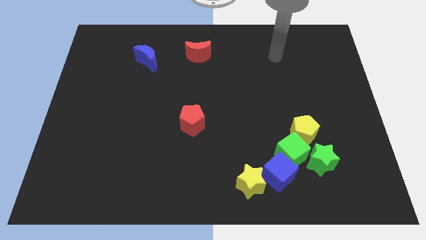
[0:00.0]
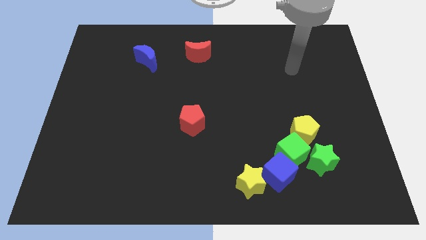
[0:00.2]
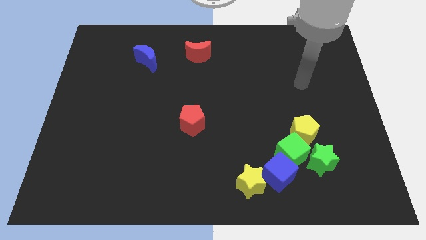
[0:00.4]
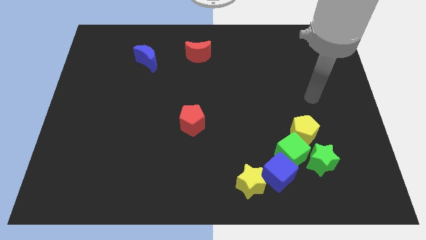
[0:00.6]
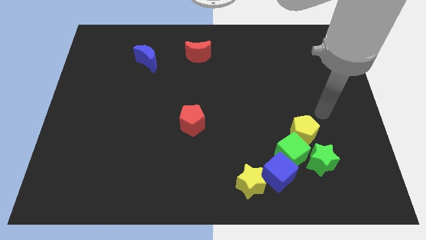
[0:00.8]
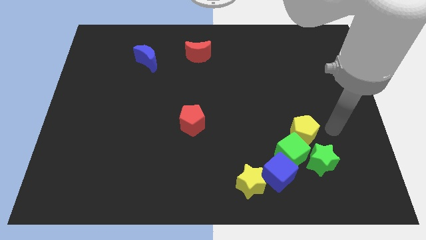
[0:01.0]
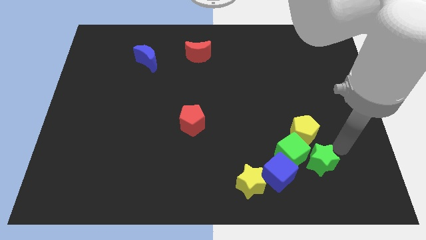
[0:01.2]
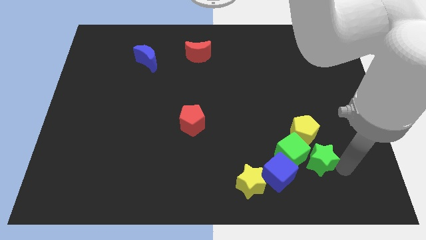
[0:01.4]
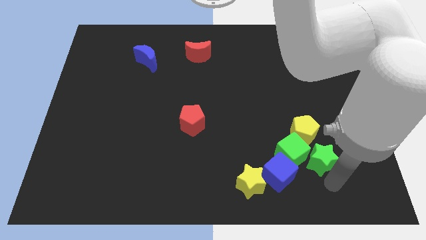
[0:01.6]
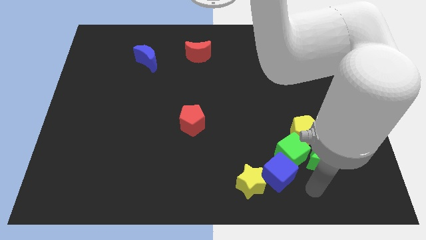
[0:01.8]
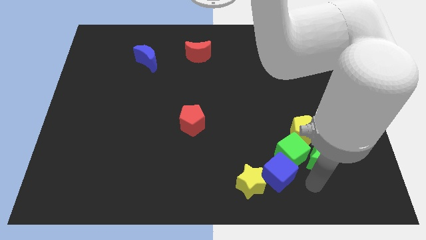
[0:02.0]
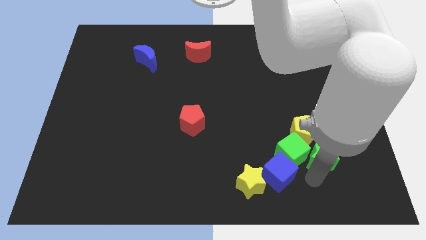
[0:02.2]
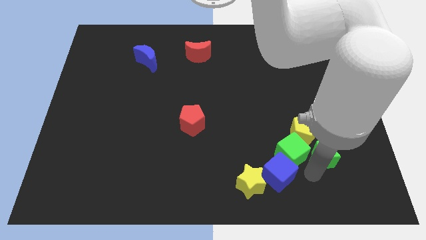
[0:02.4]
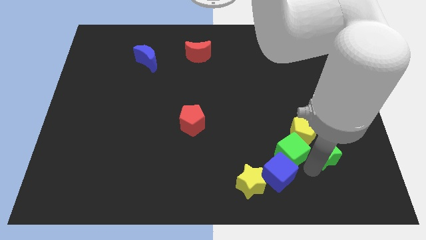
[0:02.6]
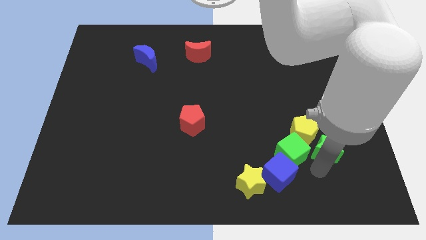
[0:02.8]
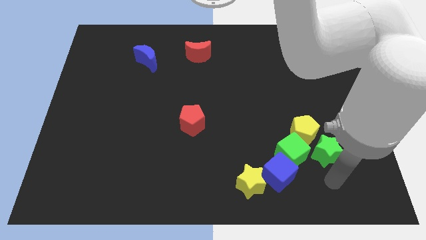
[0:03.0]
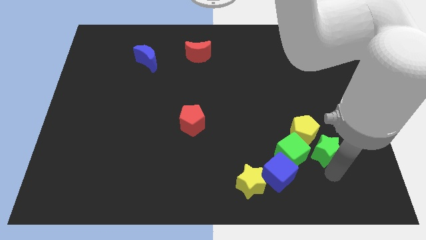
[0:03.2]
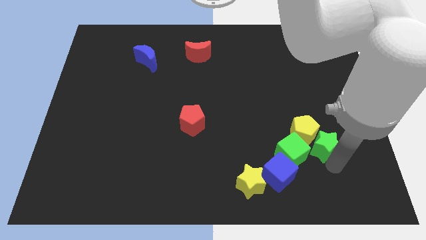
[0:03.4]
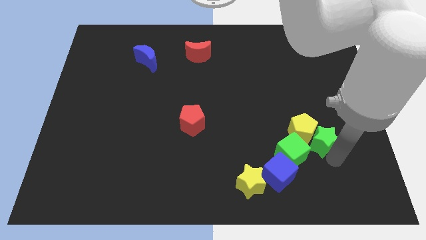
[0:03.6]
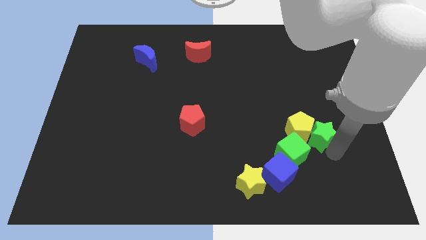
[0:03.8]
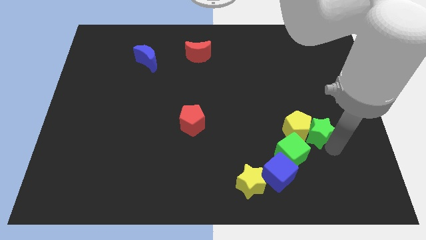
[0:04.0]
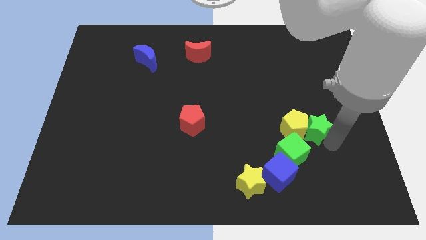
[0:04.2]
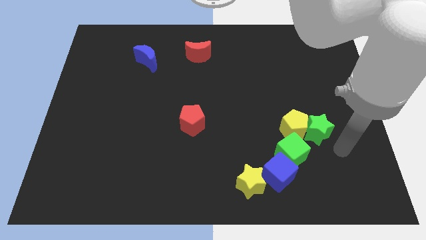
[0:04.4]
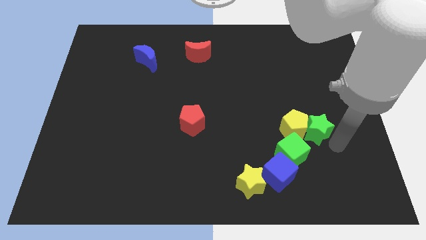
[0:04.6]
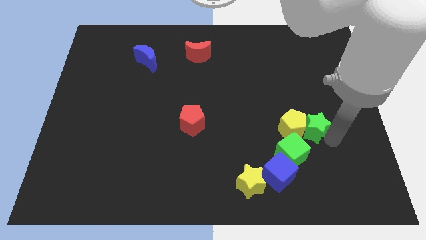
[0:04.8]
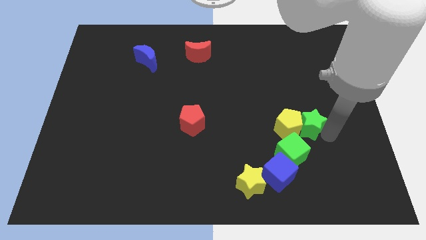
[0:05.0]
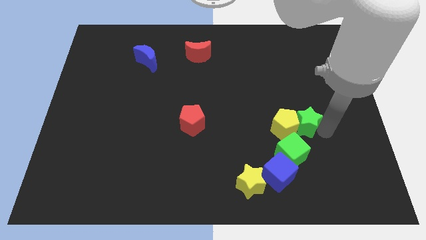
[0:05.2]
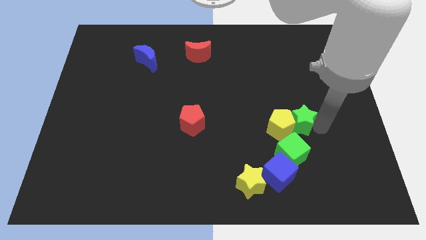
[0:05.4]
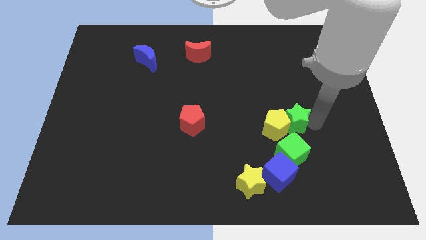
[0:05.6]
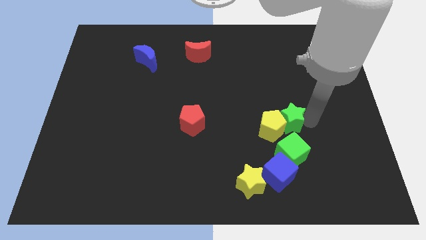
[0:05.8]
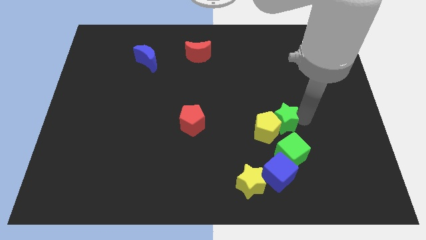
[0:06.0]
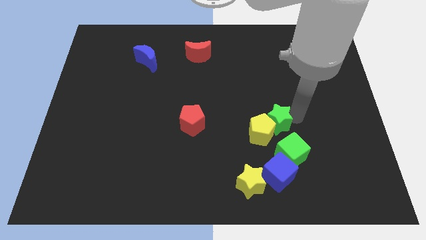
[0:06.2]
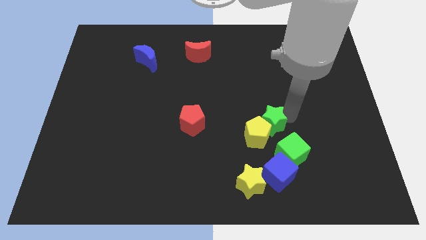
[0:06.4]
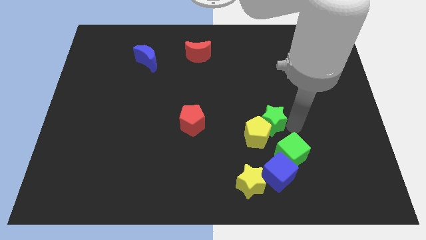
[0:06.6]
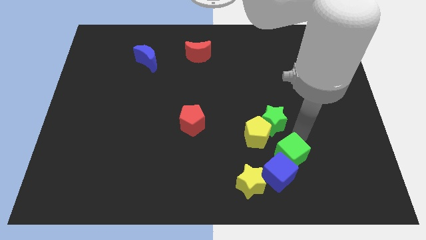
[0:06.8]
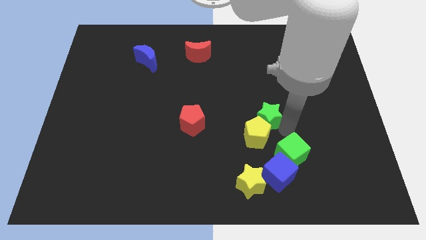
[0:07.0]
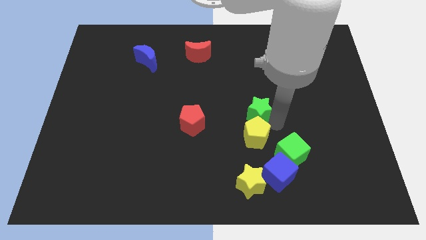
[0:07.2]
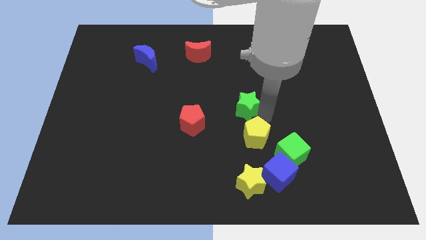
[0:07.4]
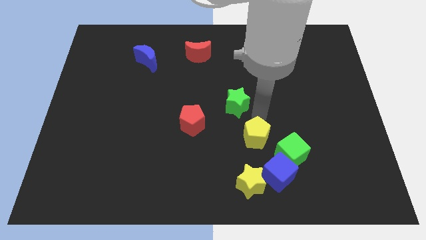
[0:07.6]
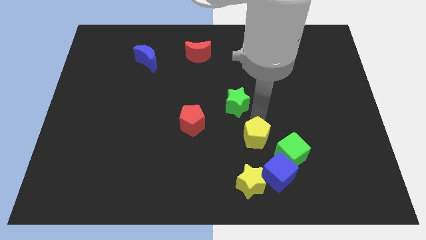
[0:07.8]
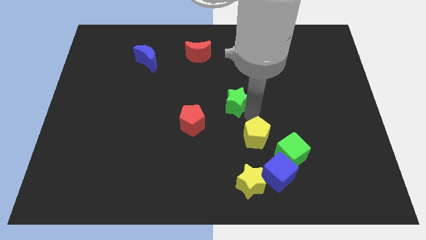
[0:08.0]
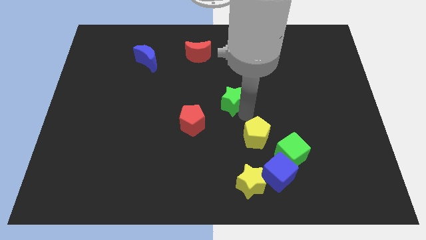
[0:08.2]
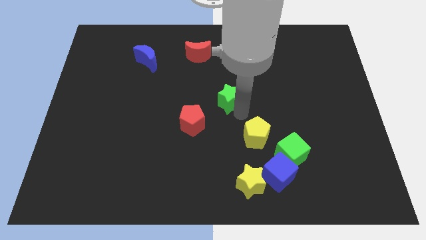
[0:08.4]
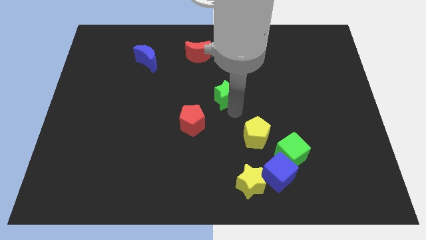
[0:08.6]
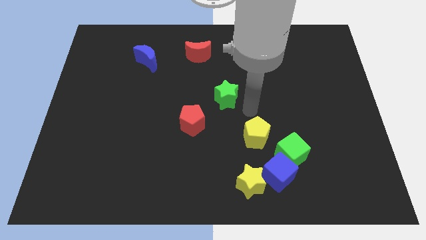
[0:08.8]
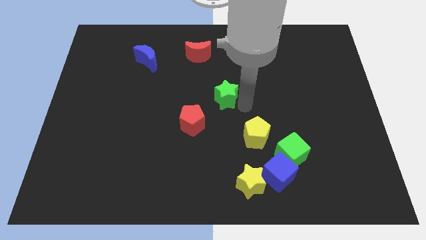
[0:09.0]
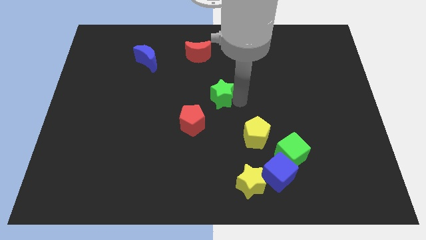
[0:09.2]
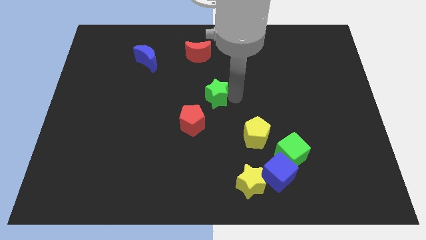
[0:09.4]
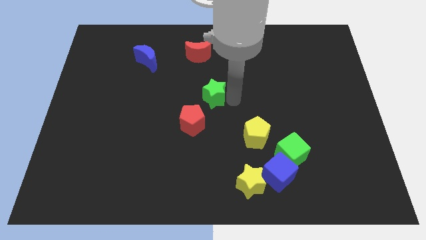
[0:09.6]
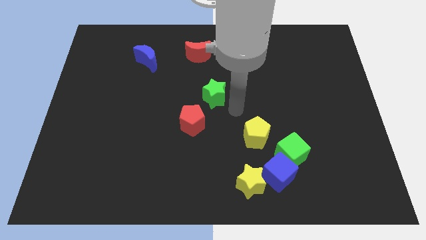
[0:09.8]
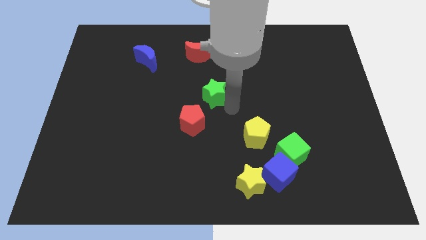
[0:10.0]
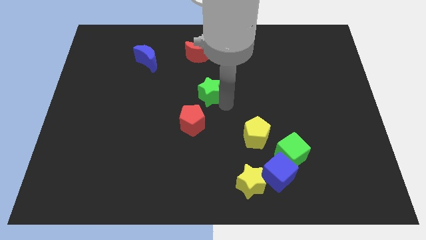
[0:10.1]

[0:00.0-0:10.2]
slide the green star to the bottom of the red moon

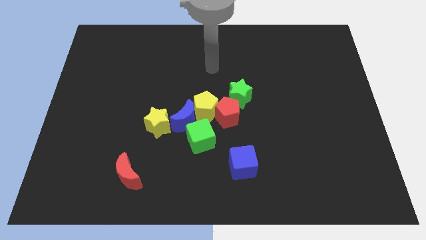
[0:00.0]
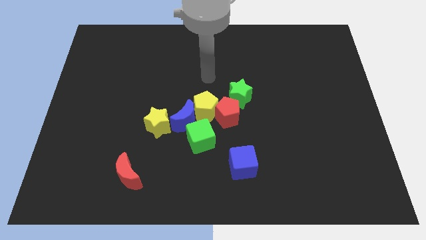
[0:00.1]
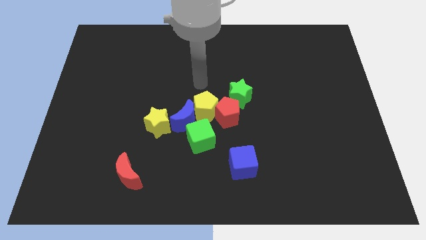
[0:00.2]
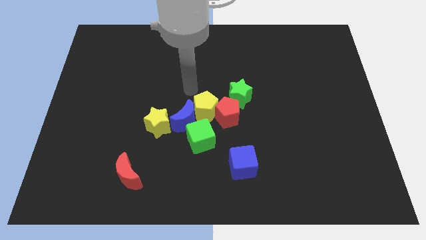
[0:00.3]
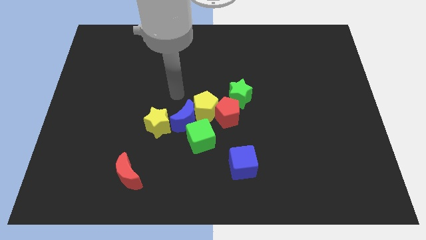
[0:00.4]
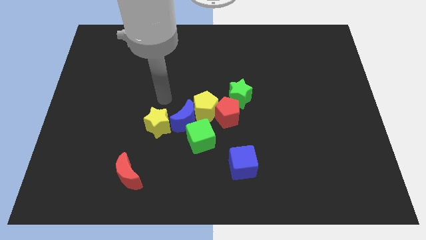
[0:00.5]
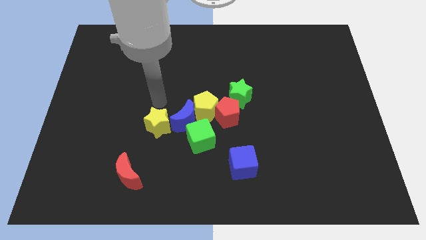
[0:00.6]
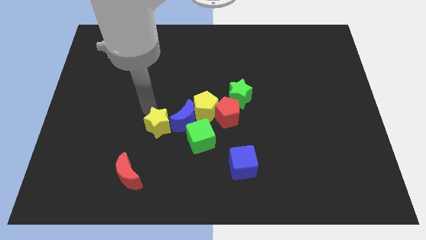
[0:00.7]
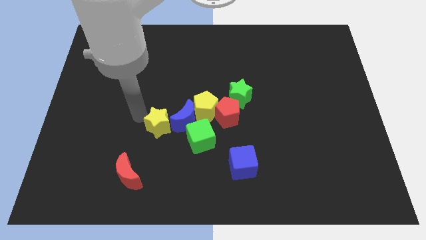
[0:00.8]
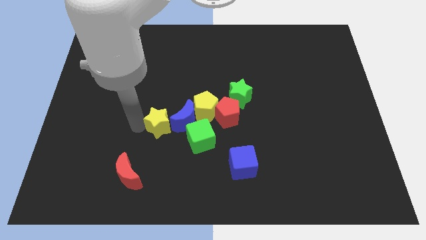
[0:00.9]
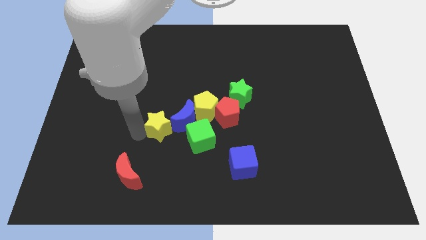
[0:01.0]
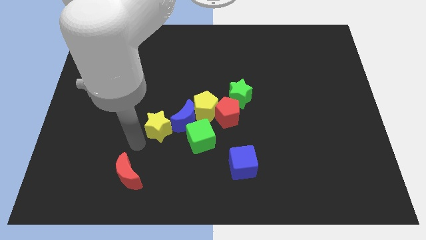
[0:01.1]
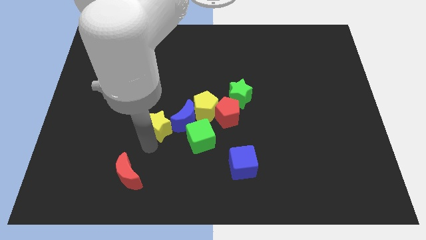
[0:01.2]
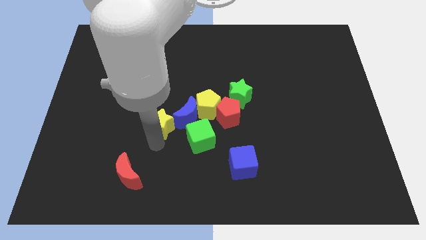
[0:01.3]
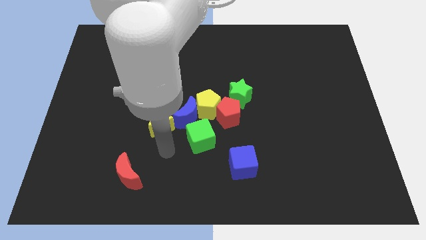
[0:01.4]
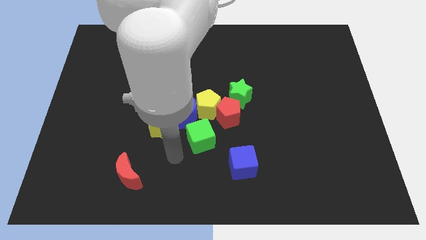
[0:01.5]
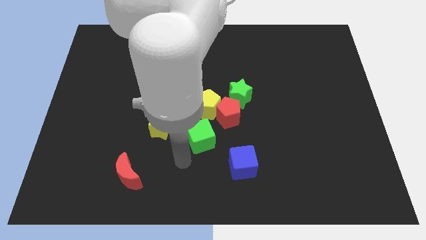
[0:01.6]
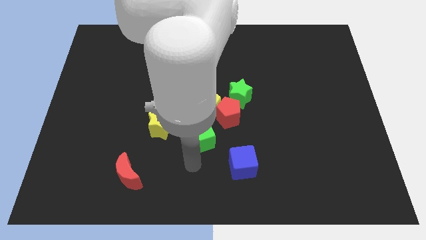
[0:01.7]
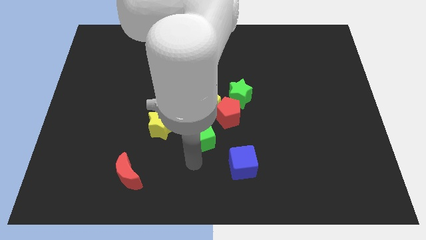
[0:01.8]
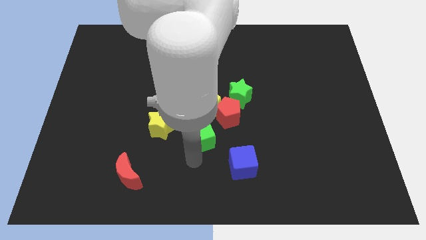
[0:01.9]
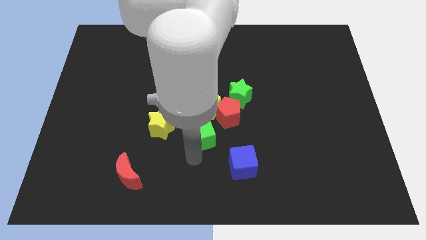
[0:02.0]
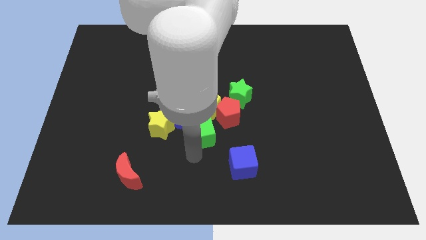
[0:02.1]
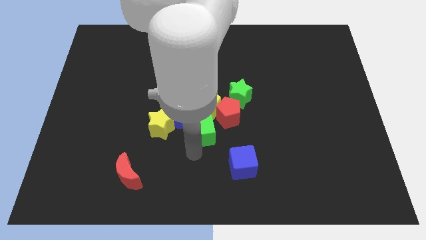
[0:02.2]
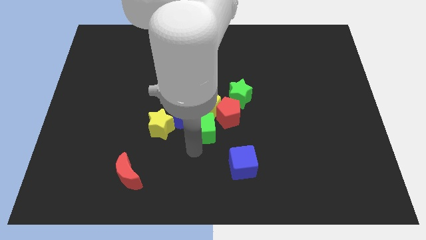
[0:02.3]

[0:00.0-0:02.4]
put the green cube to the bottom left of the green star
